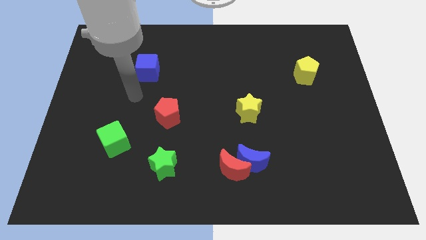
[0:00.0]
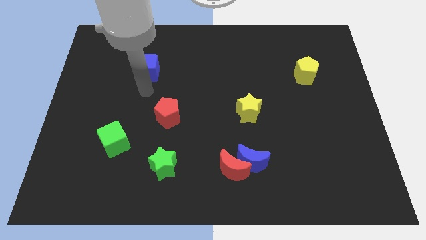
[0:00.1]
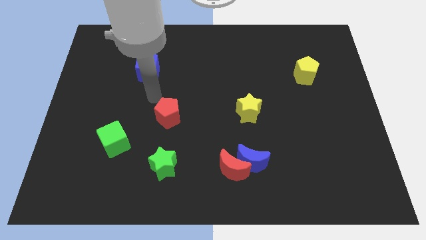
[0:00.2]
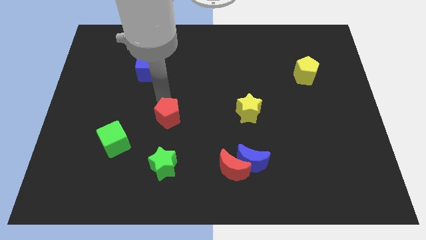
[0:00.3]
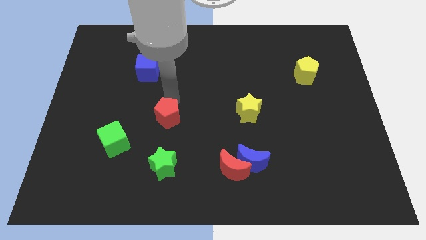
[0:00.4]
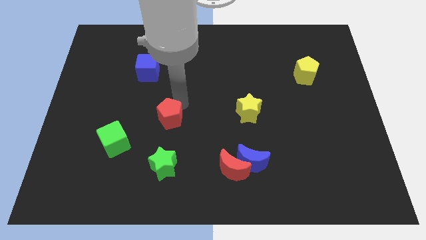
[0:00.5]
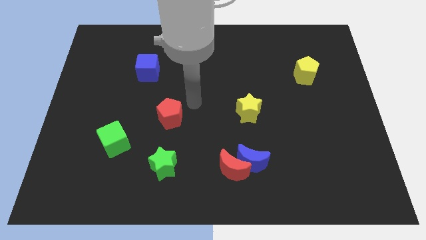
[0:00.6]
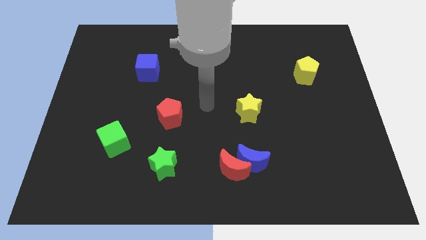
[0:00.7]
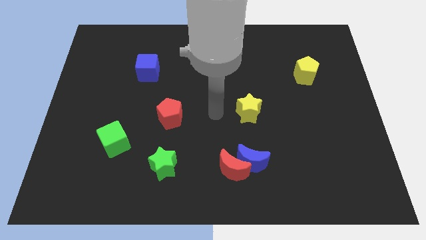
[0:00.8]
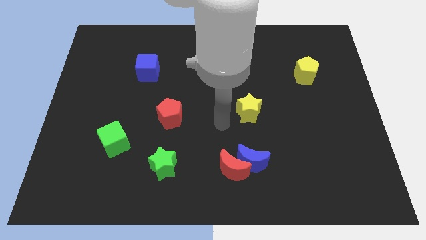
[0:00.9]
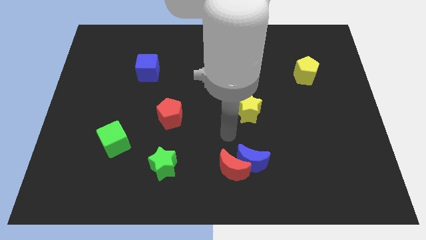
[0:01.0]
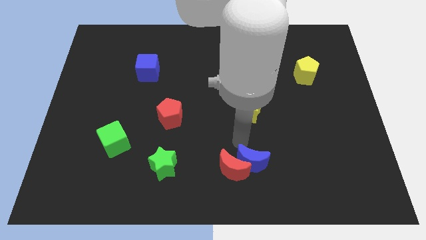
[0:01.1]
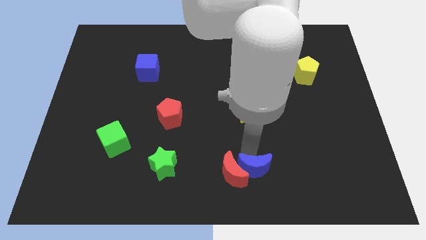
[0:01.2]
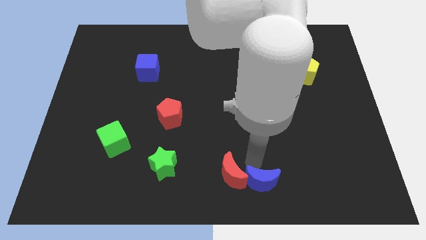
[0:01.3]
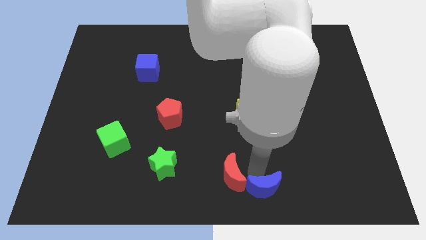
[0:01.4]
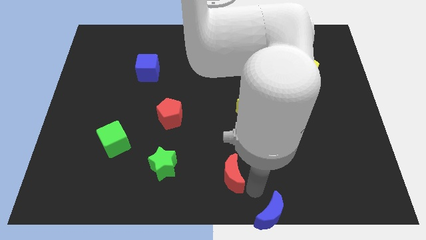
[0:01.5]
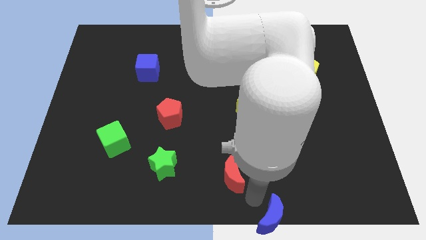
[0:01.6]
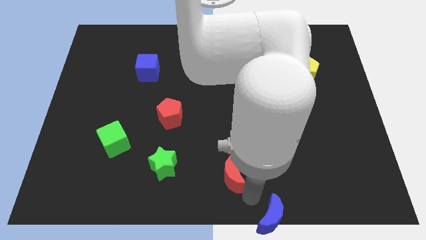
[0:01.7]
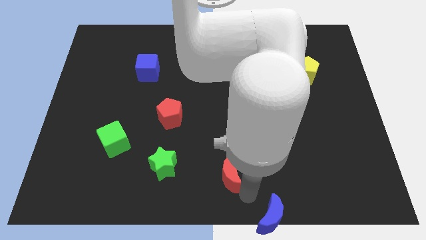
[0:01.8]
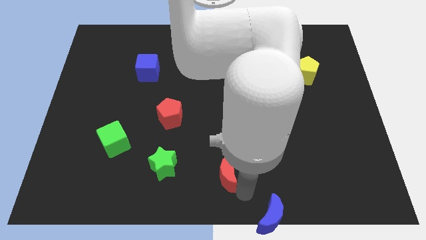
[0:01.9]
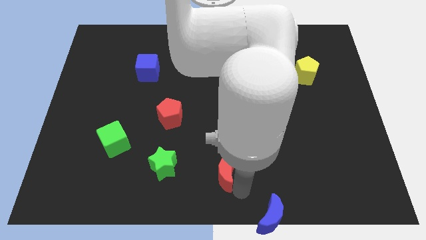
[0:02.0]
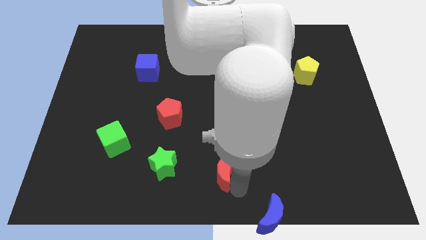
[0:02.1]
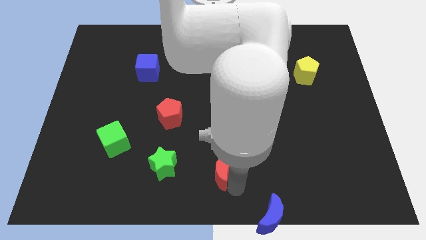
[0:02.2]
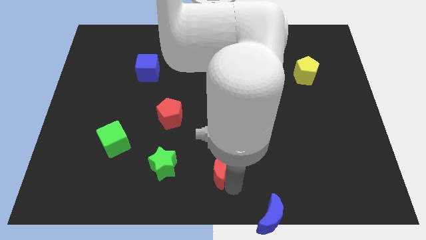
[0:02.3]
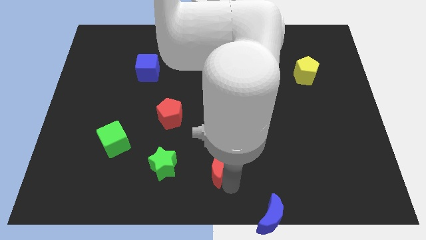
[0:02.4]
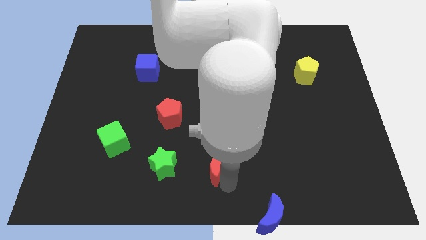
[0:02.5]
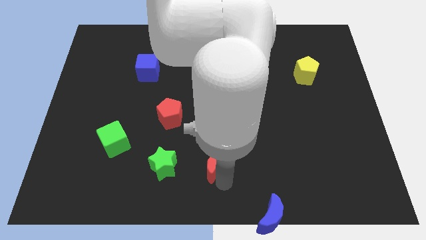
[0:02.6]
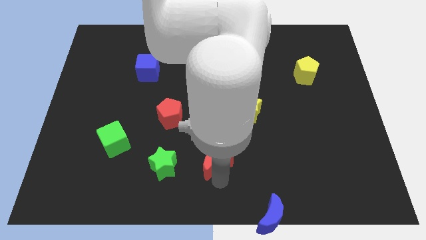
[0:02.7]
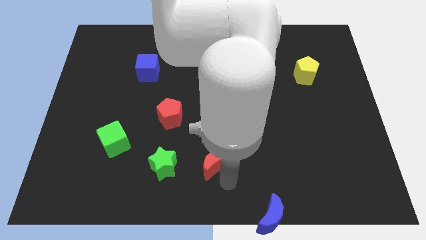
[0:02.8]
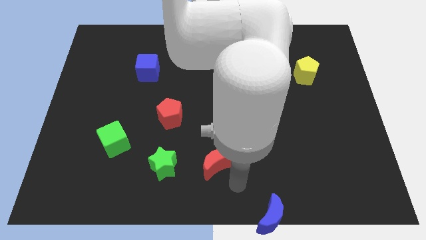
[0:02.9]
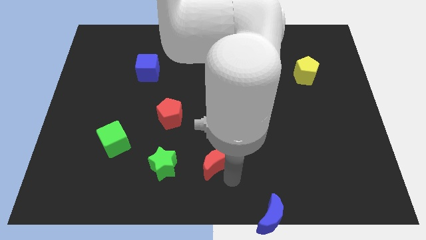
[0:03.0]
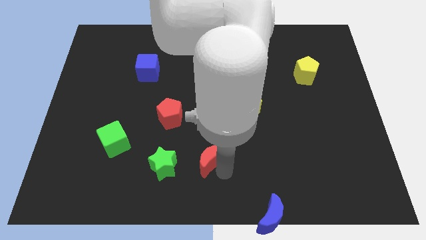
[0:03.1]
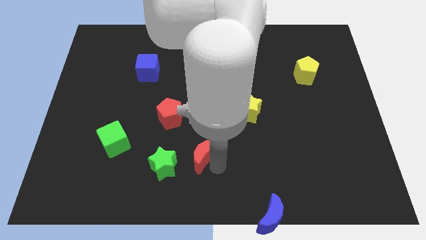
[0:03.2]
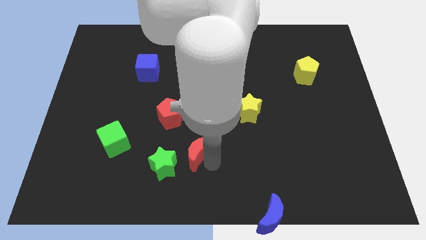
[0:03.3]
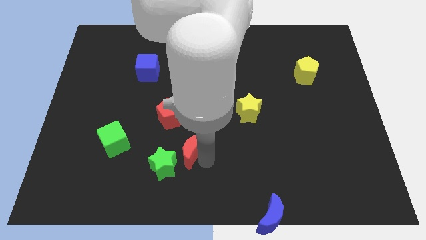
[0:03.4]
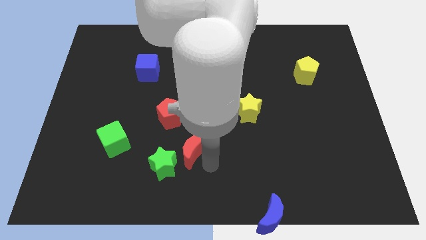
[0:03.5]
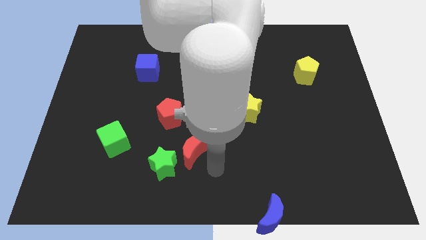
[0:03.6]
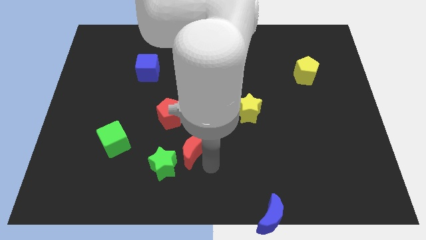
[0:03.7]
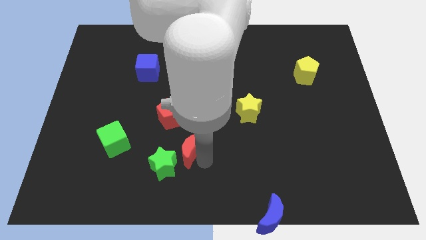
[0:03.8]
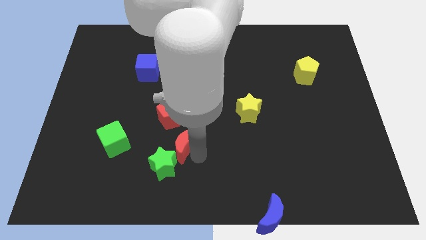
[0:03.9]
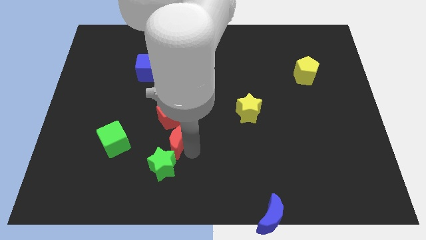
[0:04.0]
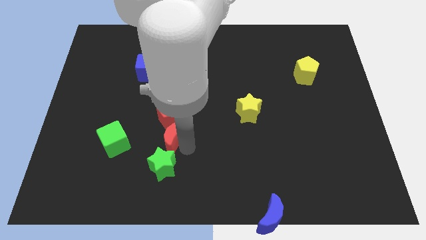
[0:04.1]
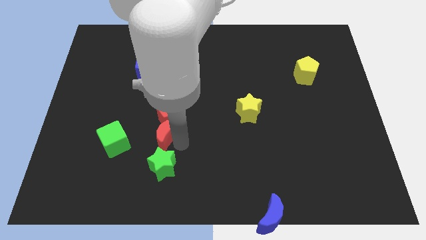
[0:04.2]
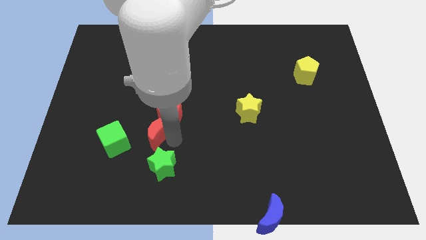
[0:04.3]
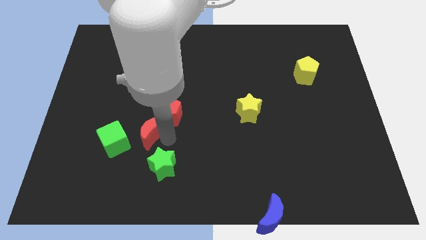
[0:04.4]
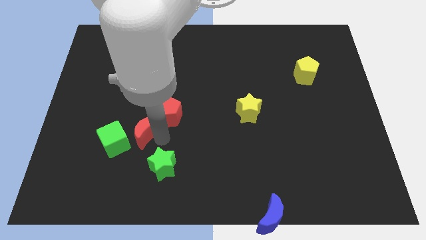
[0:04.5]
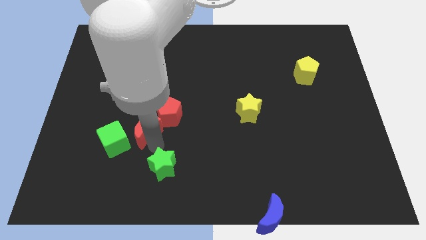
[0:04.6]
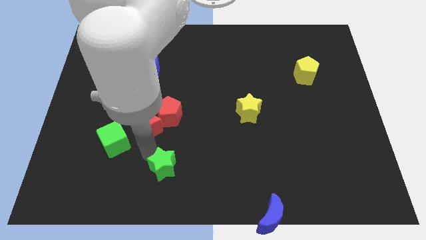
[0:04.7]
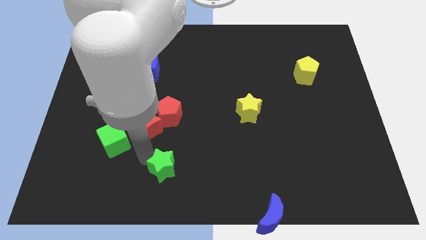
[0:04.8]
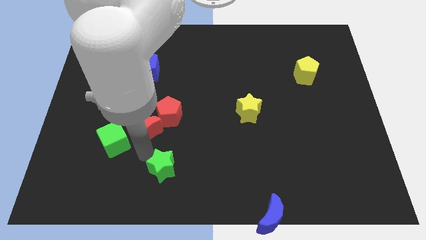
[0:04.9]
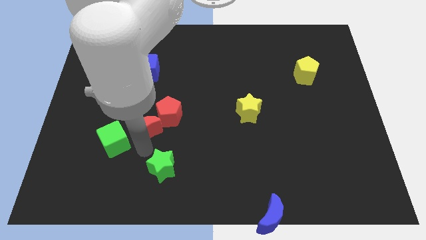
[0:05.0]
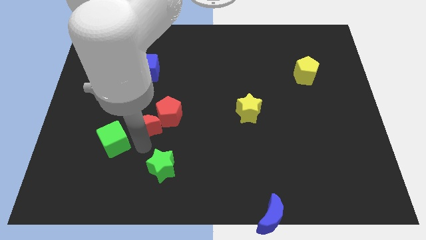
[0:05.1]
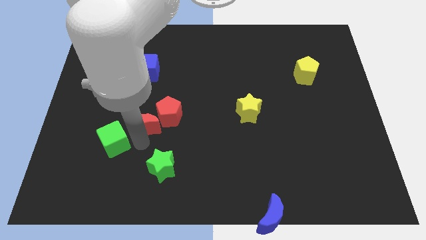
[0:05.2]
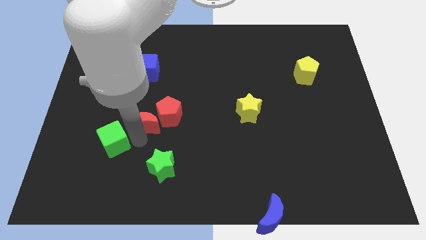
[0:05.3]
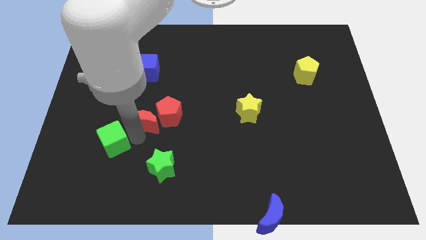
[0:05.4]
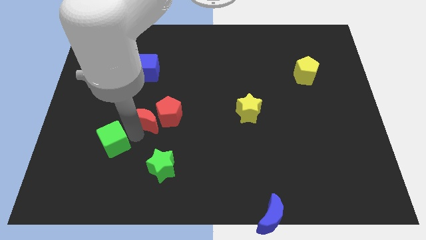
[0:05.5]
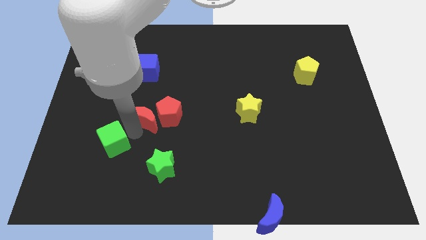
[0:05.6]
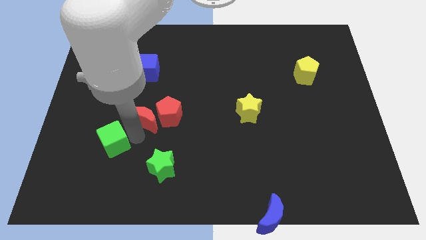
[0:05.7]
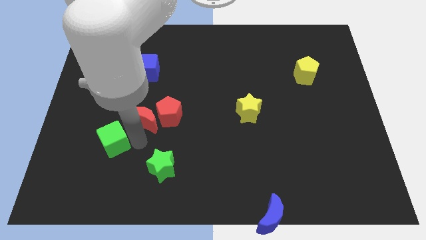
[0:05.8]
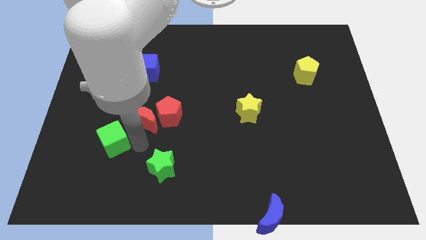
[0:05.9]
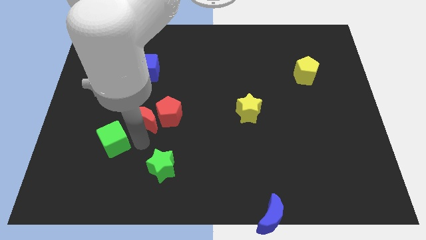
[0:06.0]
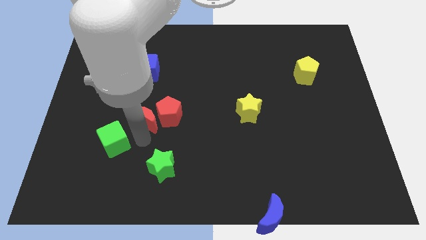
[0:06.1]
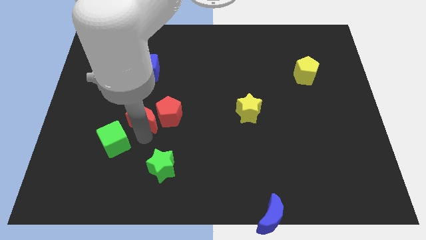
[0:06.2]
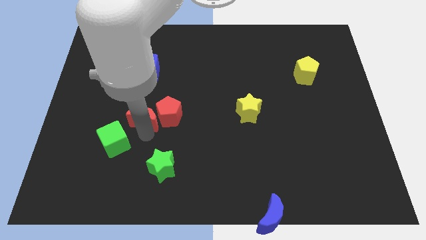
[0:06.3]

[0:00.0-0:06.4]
slide the red moon to the top left side of the red pentagon

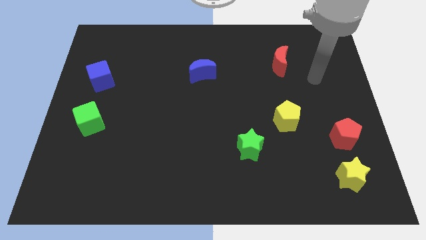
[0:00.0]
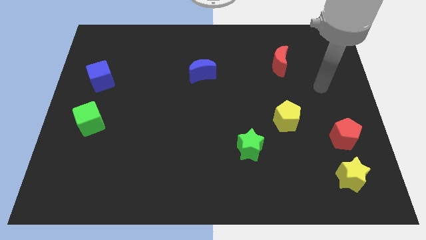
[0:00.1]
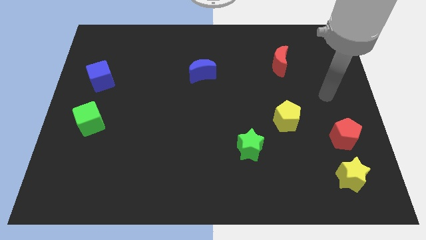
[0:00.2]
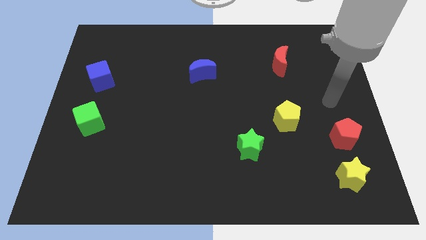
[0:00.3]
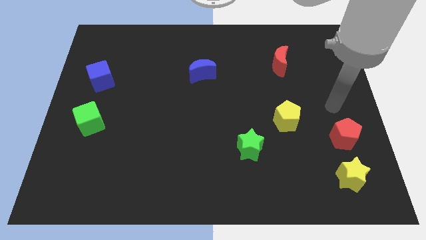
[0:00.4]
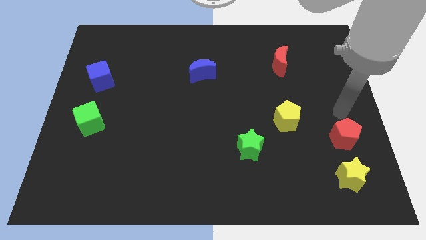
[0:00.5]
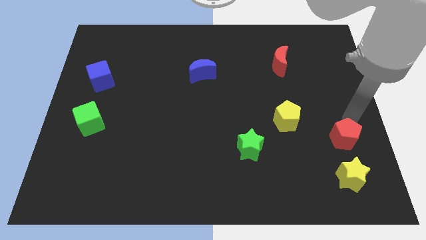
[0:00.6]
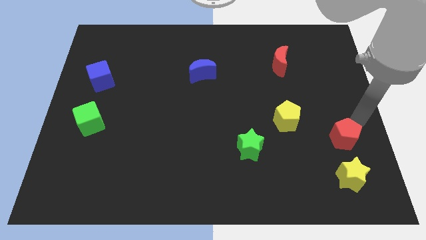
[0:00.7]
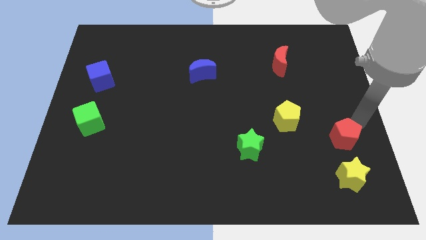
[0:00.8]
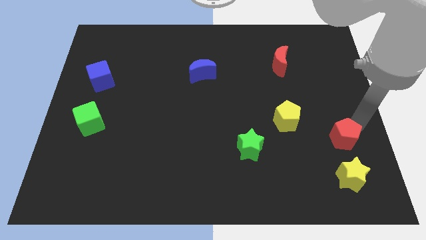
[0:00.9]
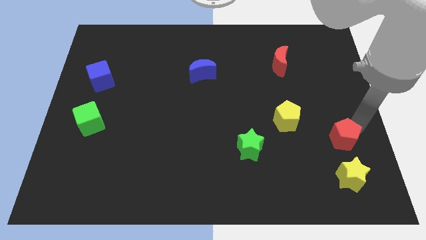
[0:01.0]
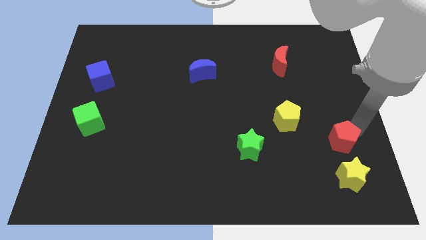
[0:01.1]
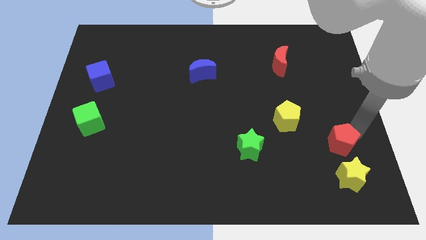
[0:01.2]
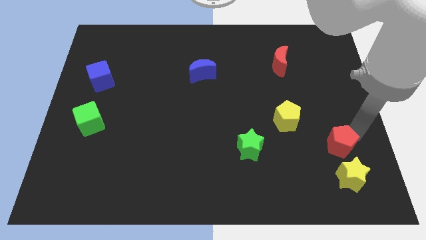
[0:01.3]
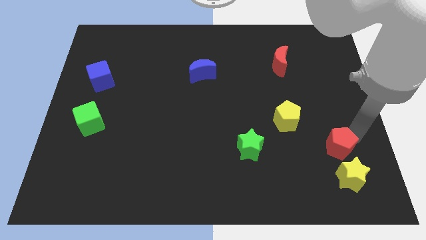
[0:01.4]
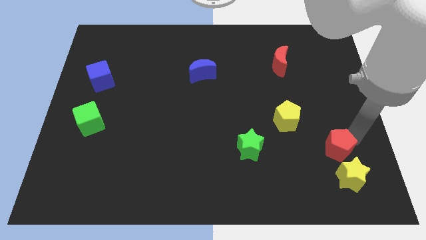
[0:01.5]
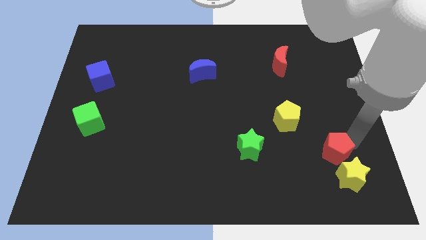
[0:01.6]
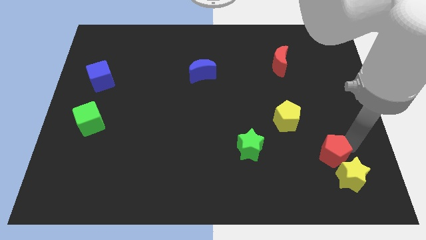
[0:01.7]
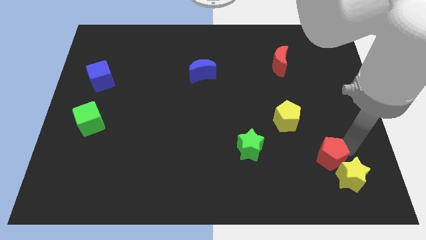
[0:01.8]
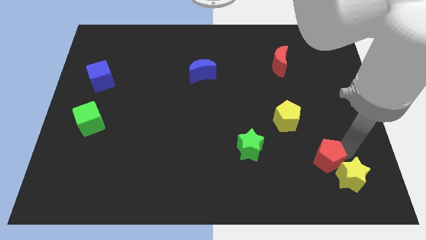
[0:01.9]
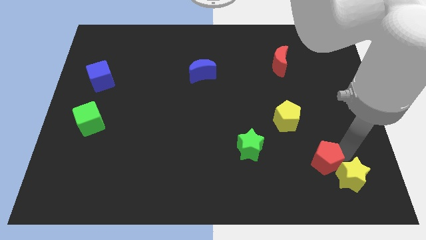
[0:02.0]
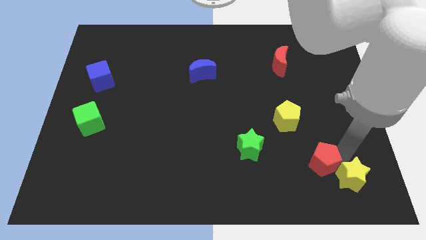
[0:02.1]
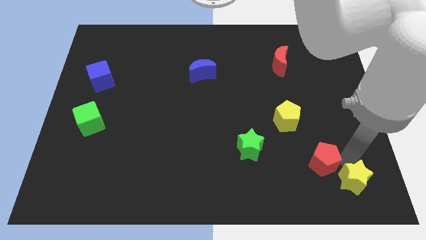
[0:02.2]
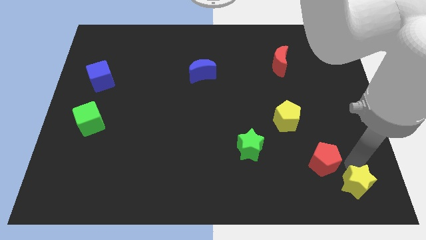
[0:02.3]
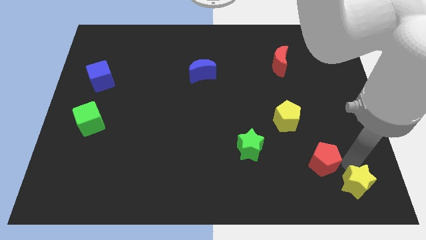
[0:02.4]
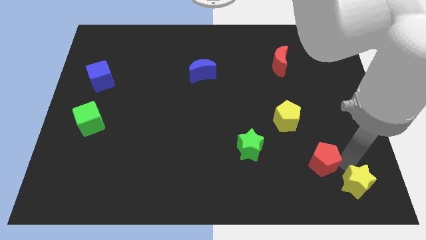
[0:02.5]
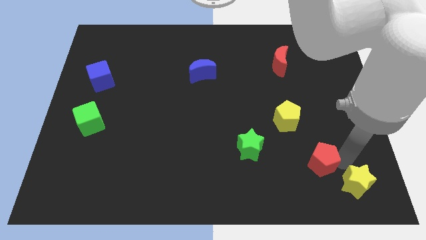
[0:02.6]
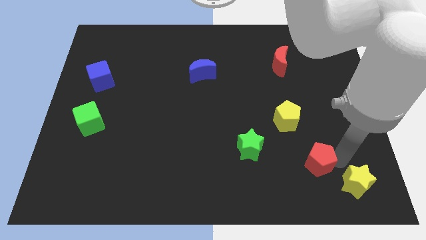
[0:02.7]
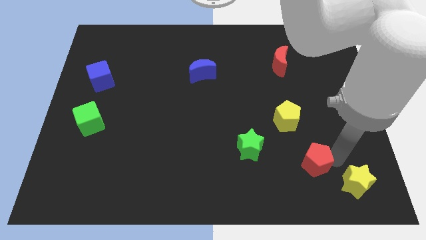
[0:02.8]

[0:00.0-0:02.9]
move the red pentagon to the bottom side of the yellow pentagon
